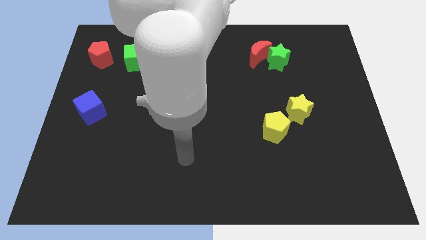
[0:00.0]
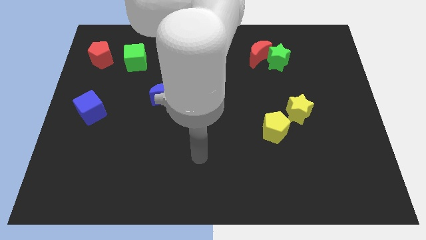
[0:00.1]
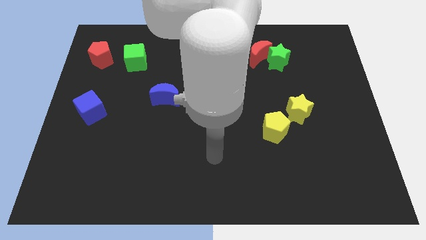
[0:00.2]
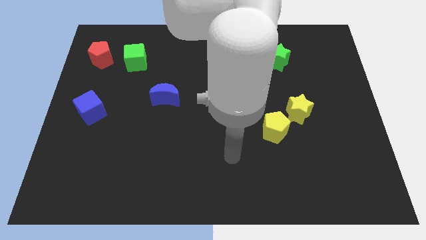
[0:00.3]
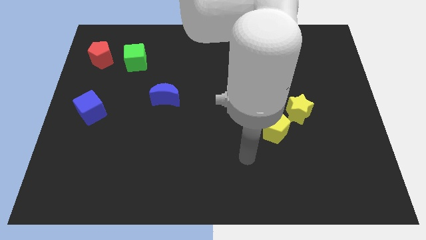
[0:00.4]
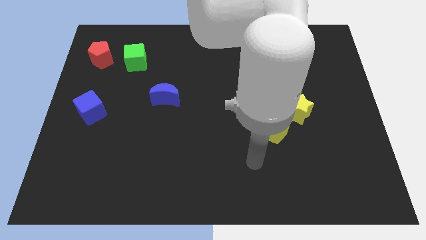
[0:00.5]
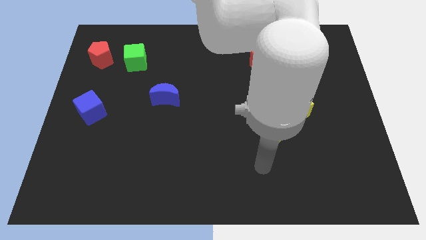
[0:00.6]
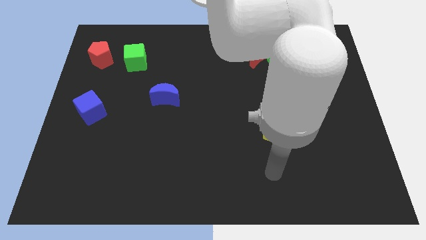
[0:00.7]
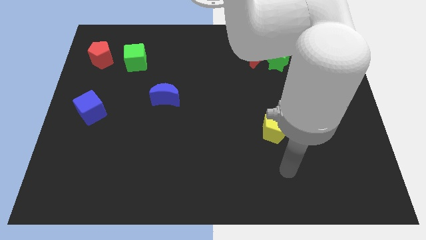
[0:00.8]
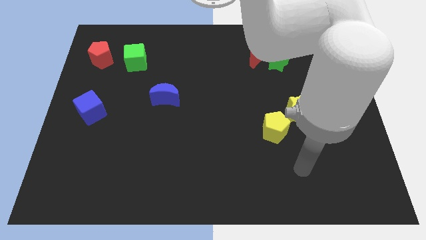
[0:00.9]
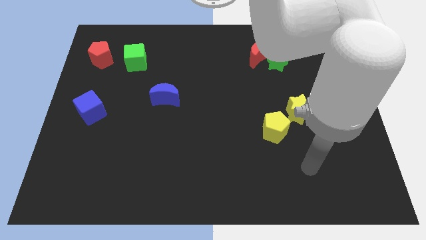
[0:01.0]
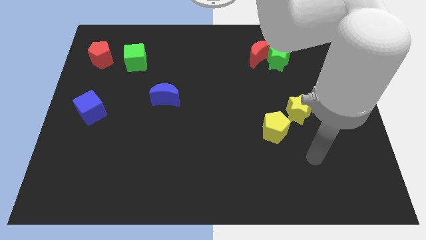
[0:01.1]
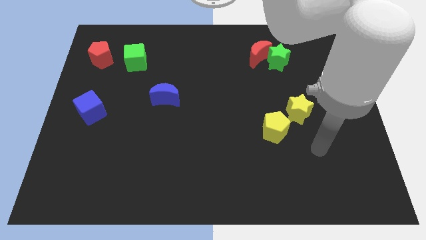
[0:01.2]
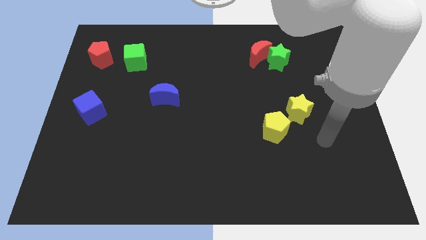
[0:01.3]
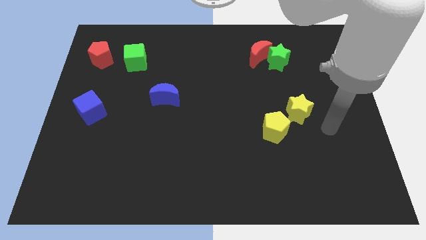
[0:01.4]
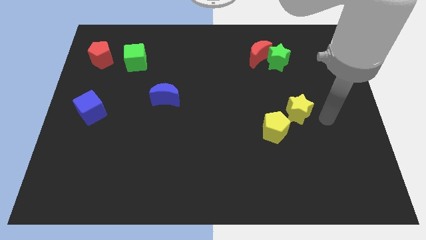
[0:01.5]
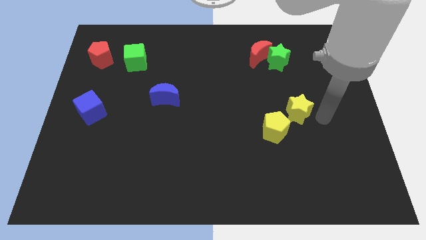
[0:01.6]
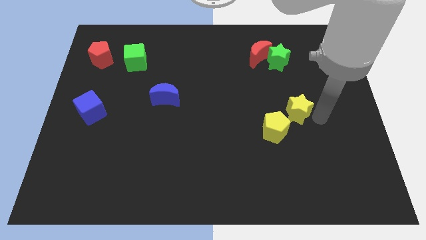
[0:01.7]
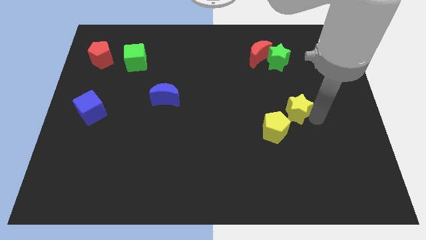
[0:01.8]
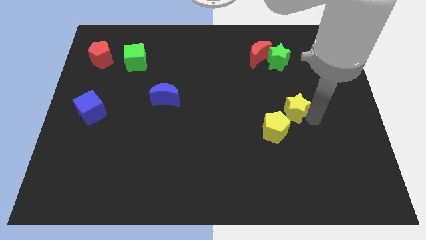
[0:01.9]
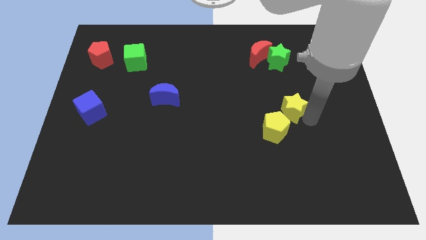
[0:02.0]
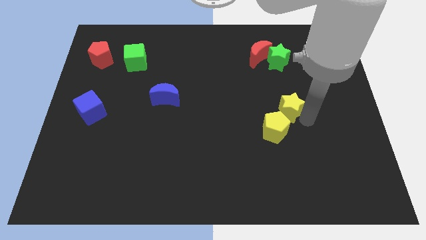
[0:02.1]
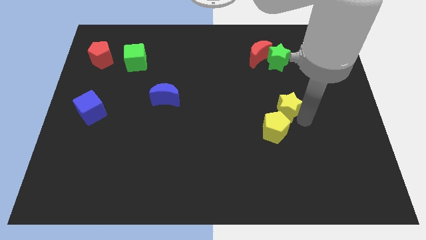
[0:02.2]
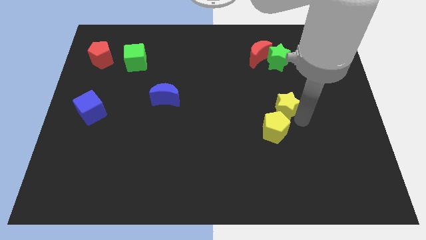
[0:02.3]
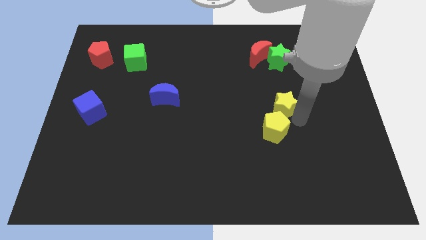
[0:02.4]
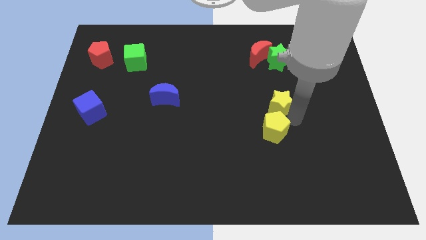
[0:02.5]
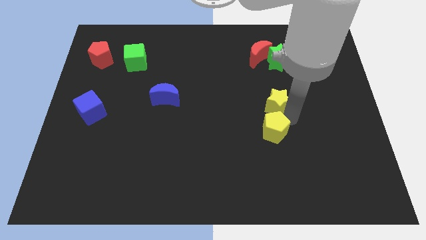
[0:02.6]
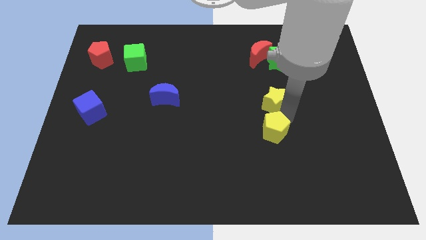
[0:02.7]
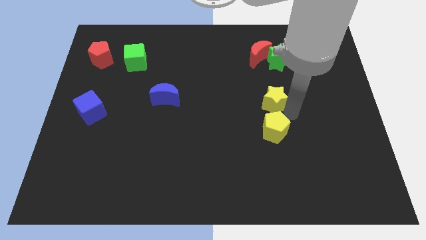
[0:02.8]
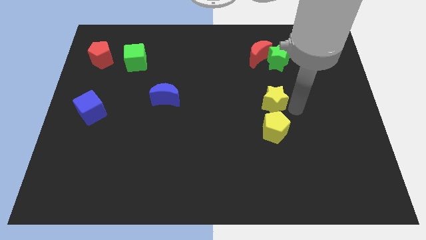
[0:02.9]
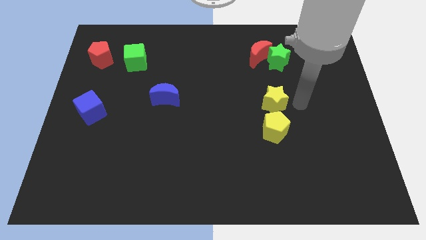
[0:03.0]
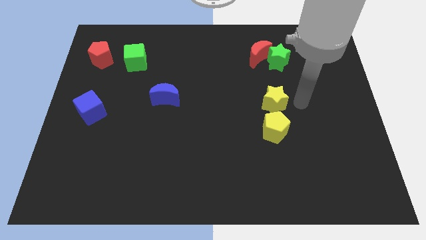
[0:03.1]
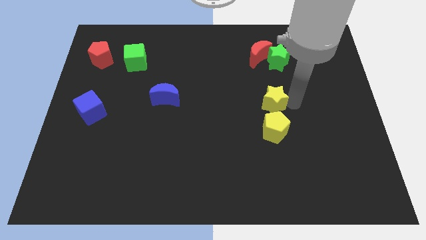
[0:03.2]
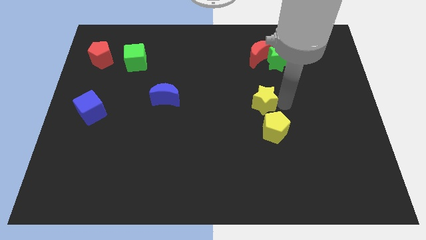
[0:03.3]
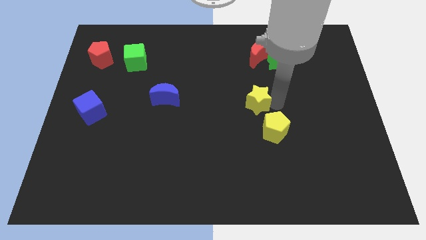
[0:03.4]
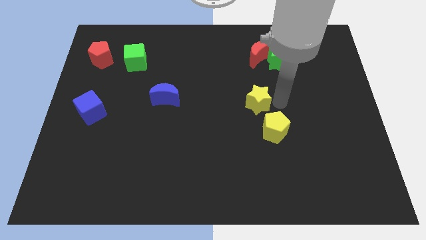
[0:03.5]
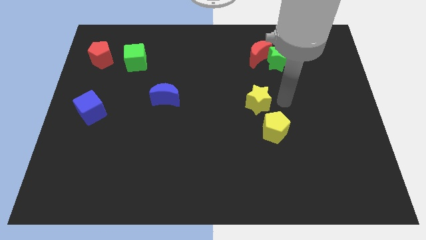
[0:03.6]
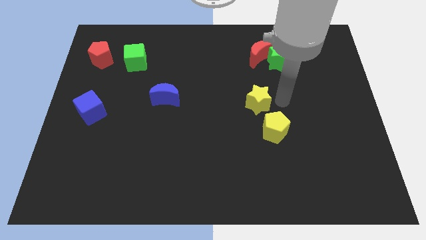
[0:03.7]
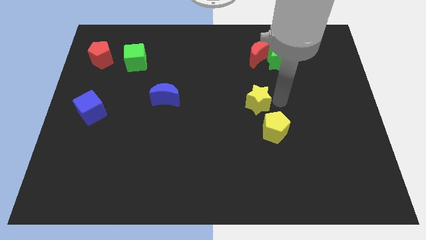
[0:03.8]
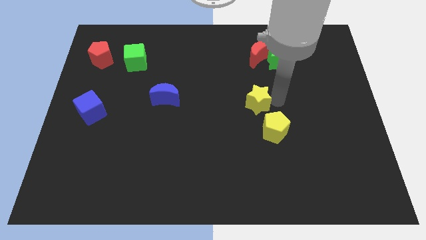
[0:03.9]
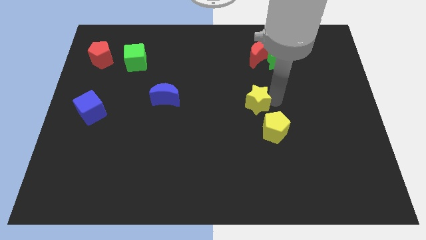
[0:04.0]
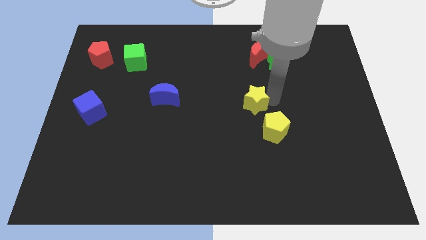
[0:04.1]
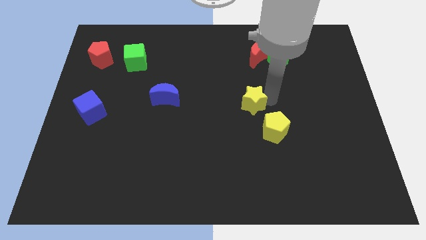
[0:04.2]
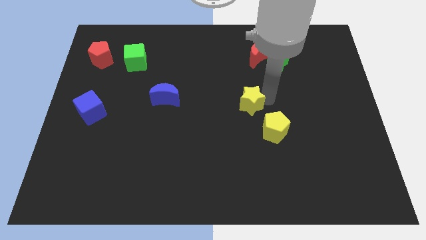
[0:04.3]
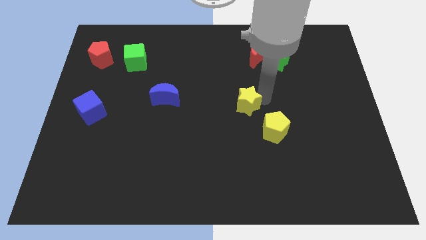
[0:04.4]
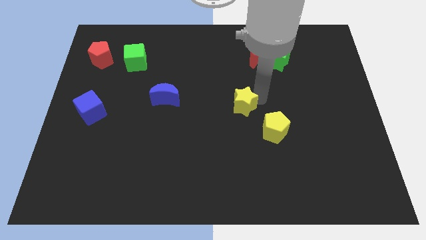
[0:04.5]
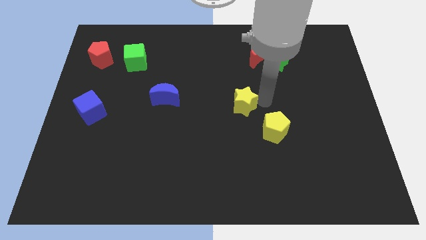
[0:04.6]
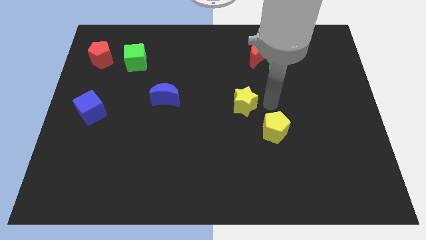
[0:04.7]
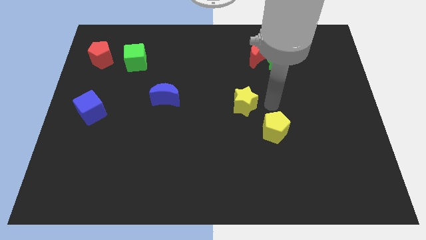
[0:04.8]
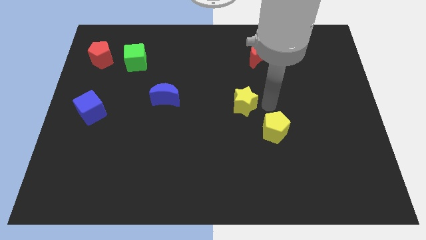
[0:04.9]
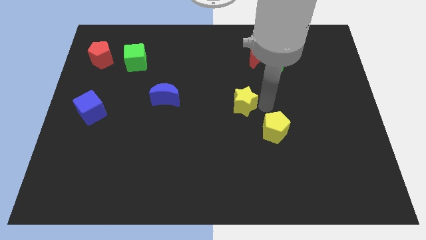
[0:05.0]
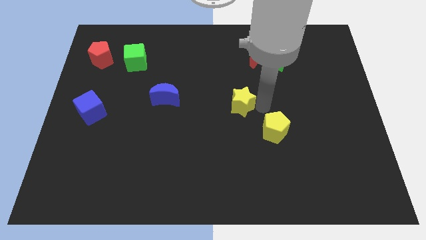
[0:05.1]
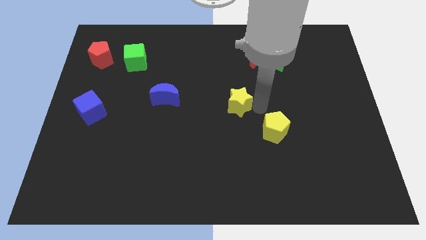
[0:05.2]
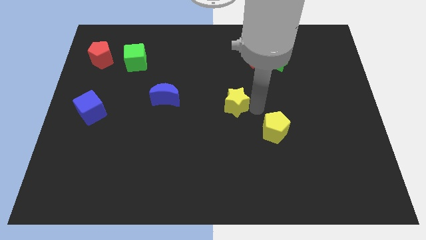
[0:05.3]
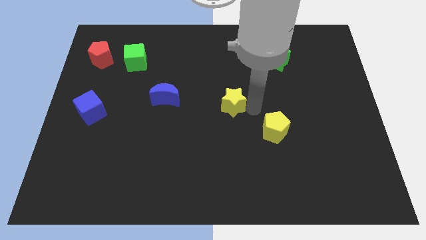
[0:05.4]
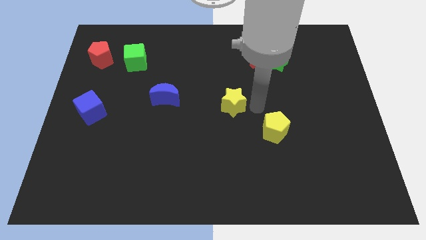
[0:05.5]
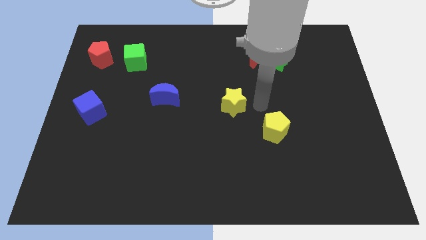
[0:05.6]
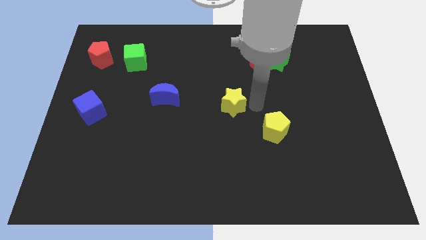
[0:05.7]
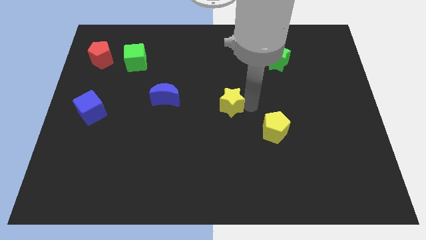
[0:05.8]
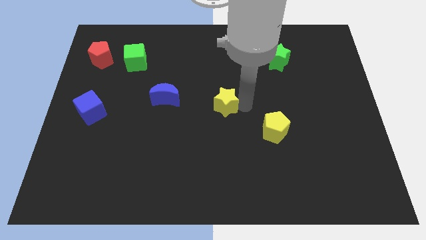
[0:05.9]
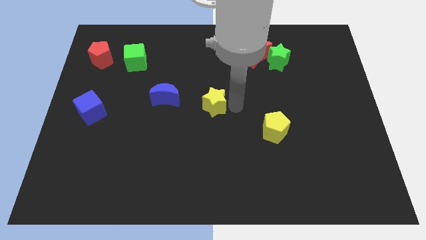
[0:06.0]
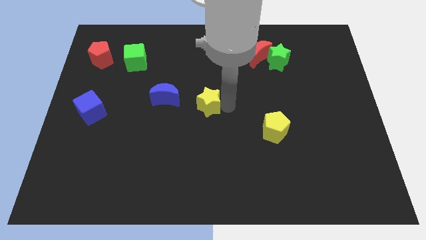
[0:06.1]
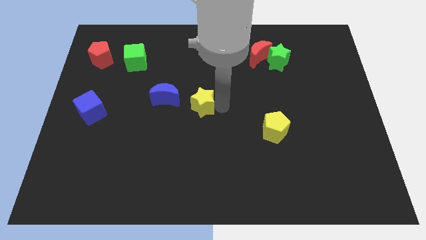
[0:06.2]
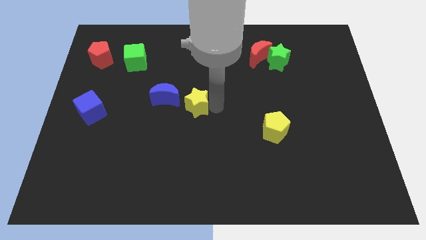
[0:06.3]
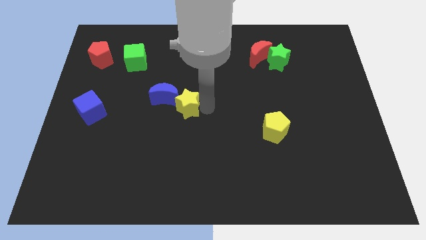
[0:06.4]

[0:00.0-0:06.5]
move the yellow star next to the blue moon
